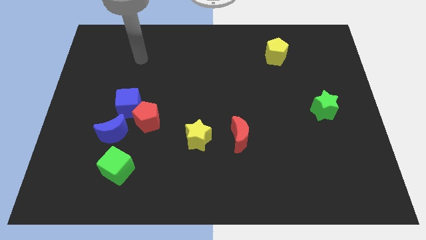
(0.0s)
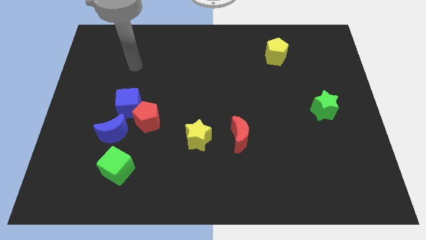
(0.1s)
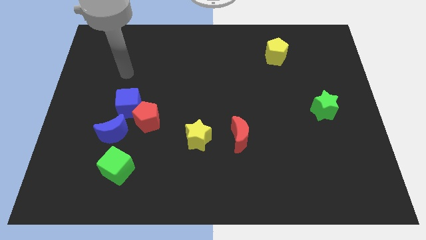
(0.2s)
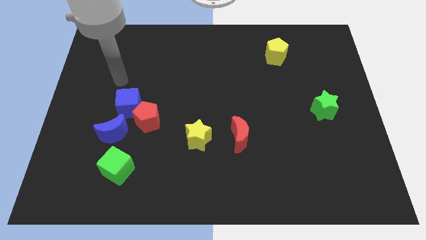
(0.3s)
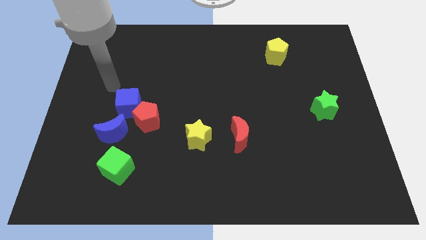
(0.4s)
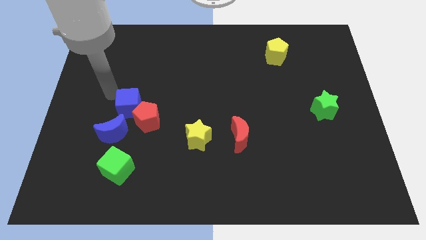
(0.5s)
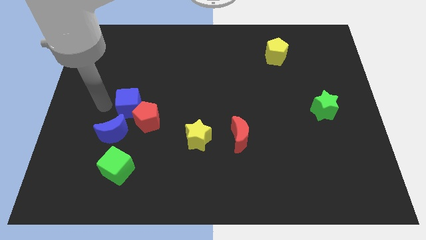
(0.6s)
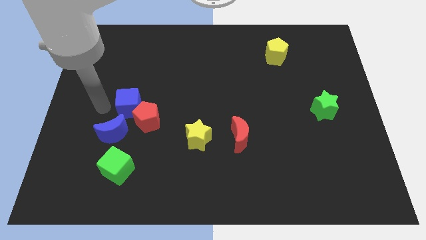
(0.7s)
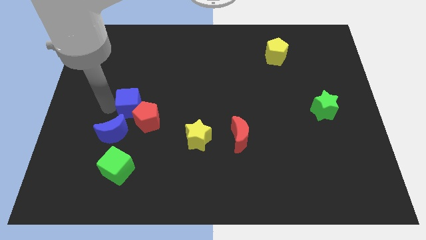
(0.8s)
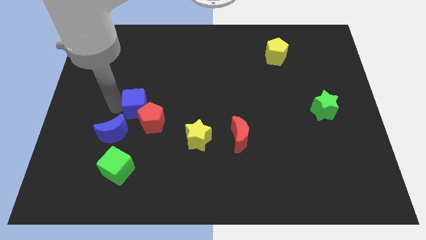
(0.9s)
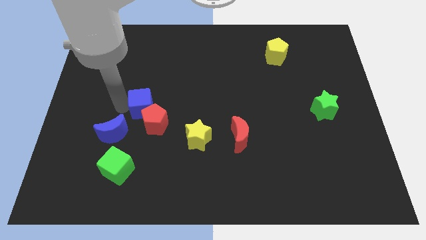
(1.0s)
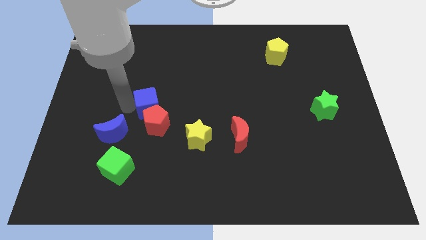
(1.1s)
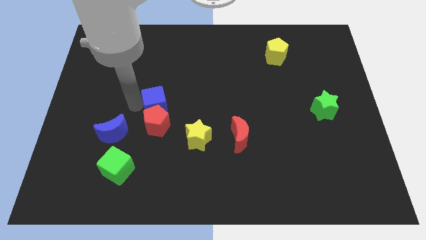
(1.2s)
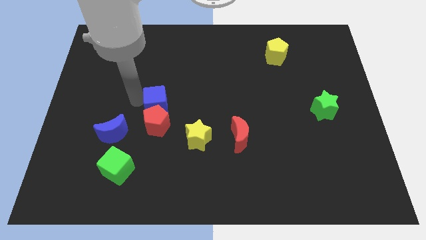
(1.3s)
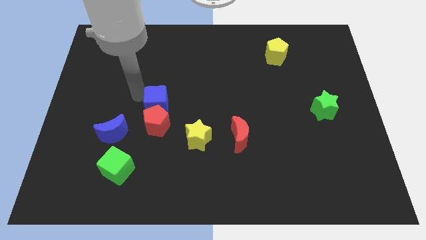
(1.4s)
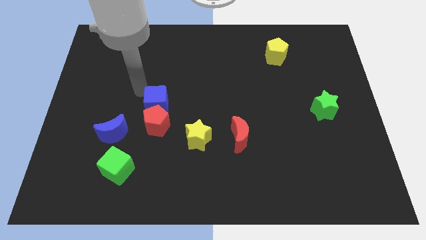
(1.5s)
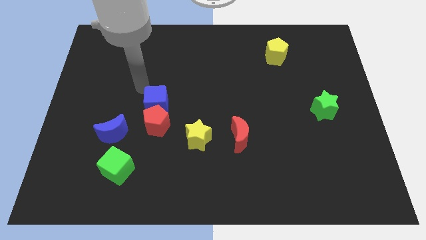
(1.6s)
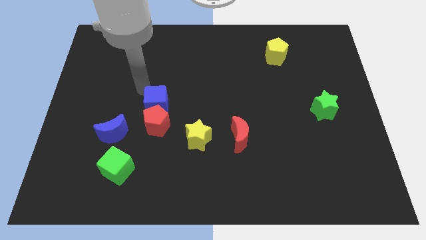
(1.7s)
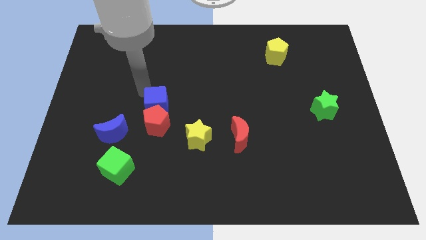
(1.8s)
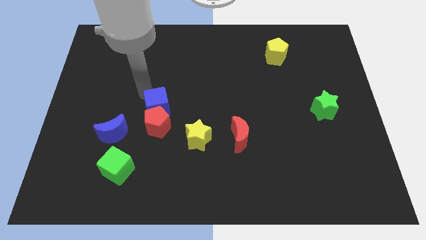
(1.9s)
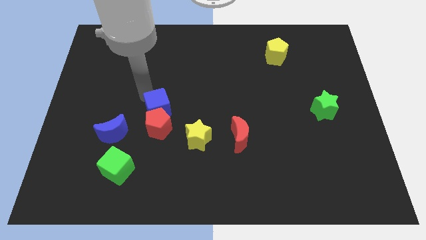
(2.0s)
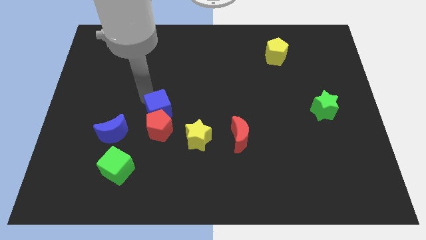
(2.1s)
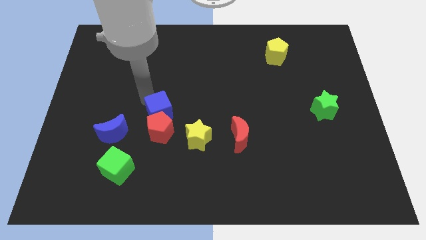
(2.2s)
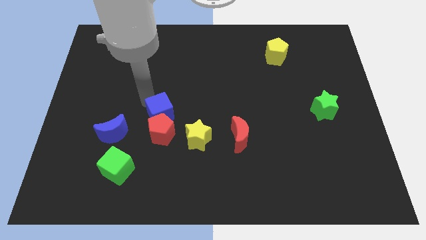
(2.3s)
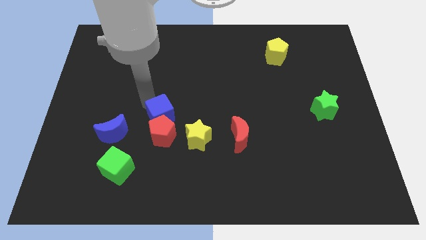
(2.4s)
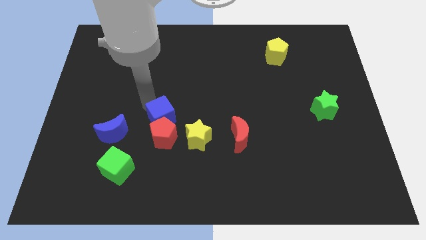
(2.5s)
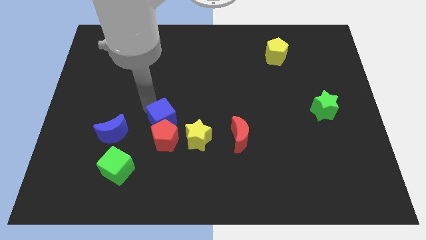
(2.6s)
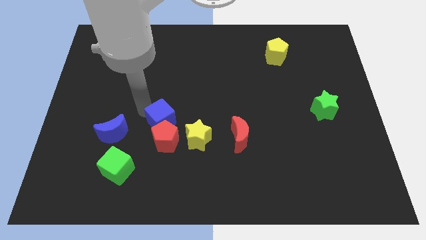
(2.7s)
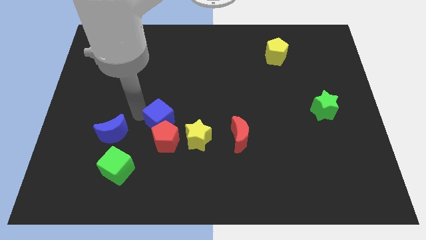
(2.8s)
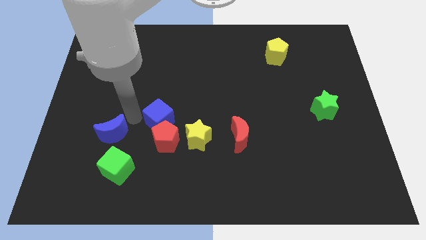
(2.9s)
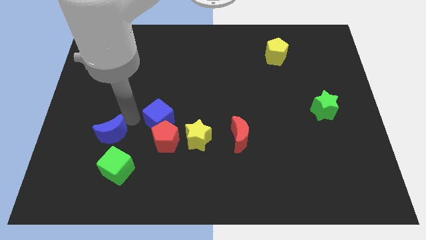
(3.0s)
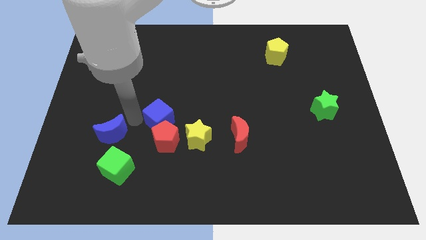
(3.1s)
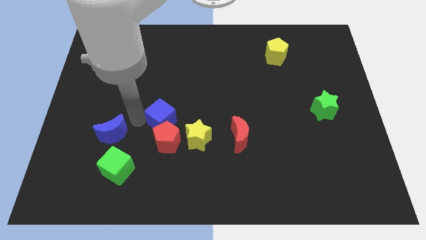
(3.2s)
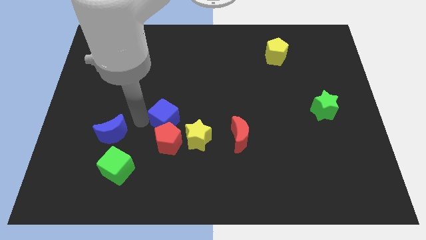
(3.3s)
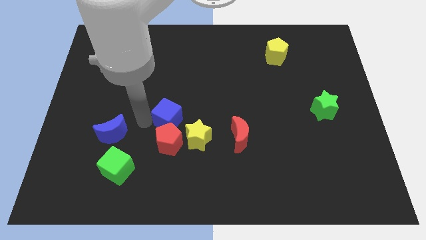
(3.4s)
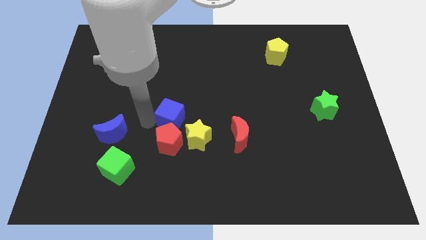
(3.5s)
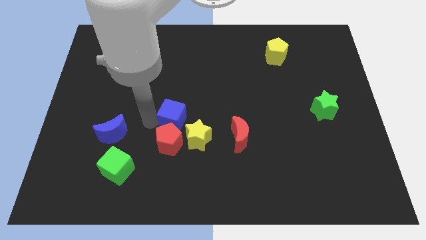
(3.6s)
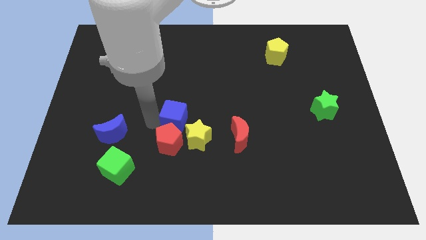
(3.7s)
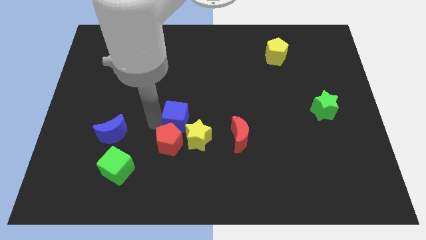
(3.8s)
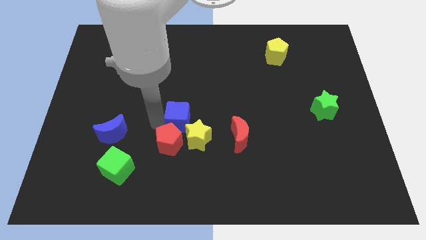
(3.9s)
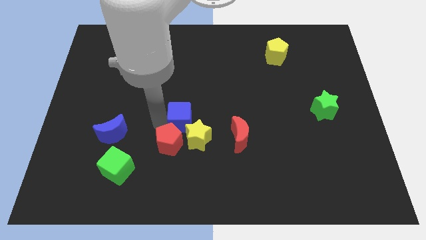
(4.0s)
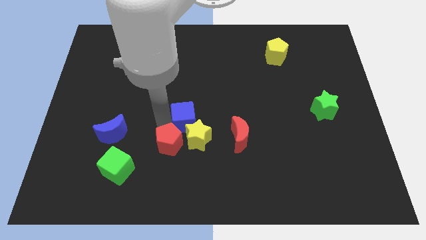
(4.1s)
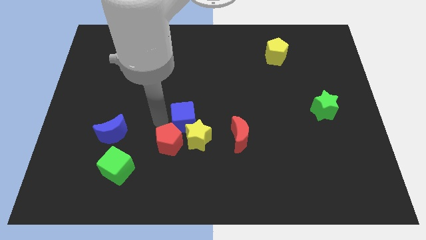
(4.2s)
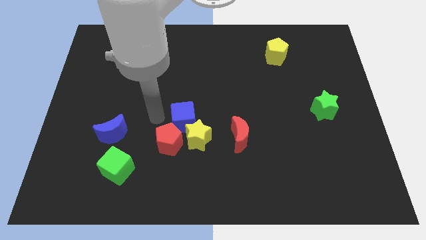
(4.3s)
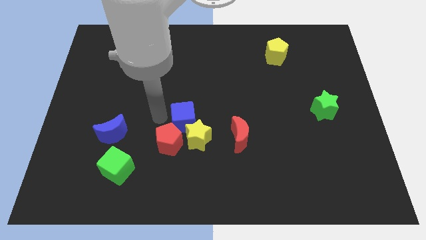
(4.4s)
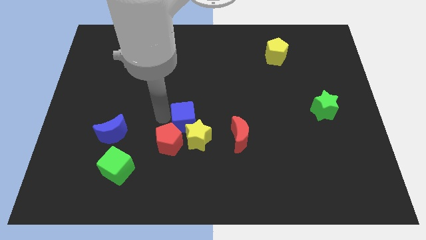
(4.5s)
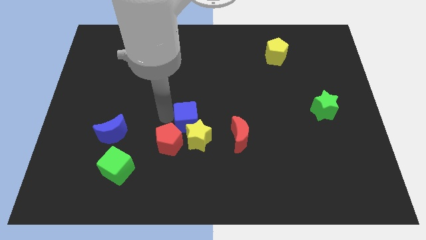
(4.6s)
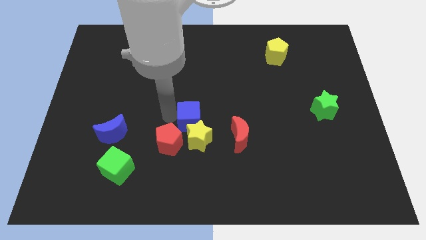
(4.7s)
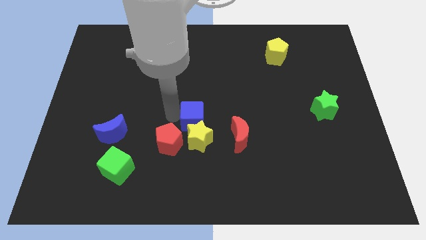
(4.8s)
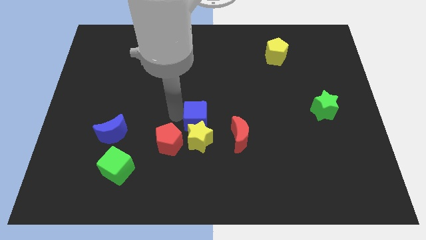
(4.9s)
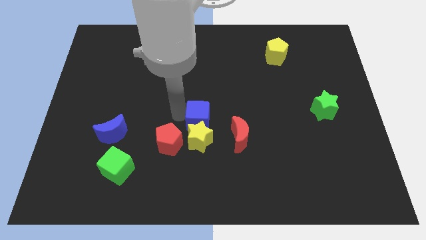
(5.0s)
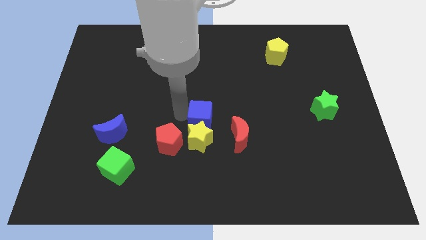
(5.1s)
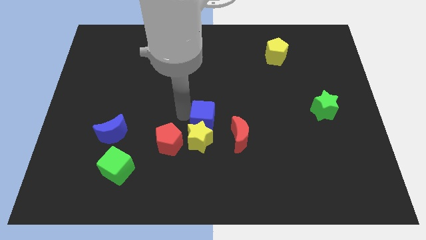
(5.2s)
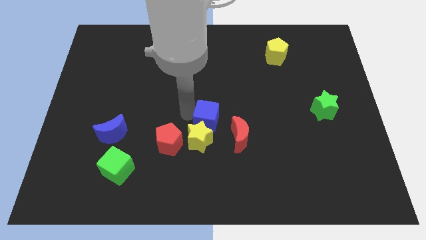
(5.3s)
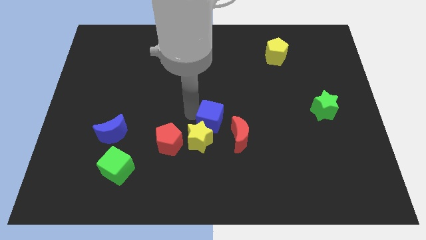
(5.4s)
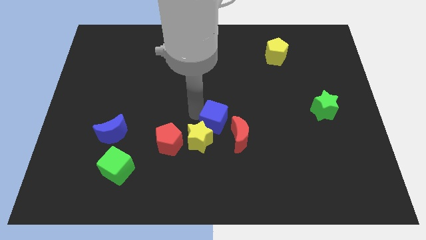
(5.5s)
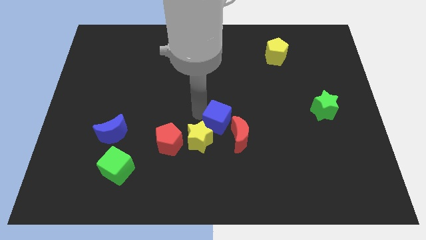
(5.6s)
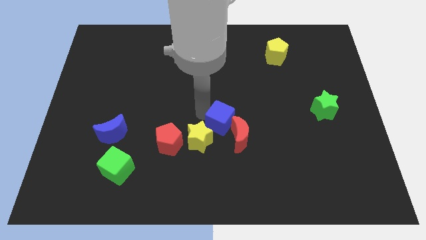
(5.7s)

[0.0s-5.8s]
put the blue cube to the red moon
